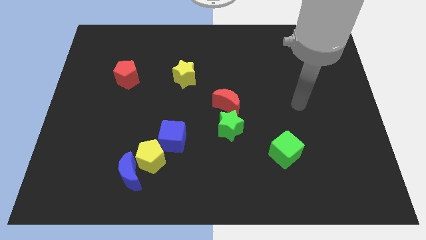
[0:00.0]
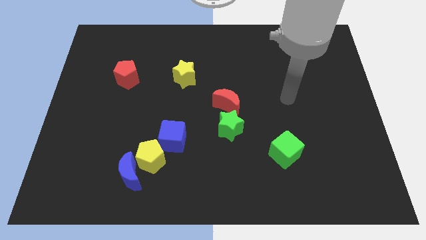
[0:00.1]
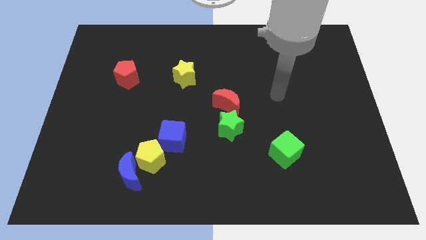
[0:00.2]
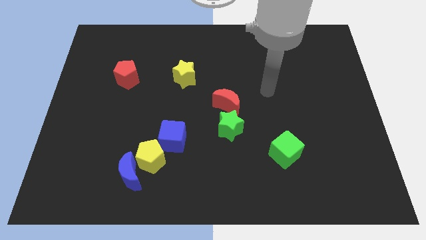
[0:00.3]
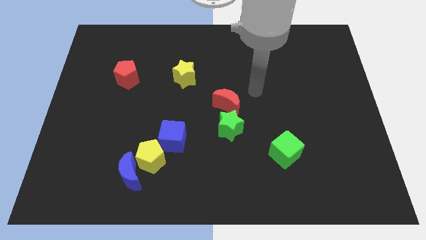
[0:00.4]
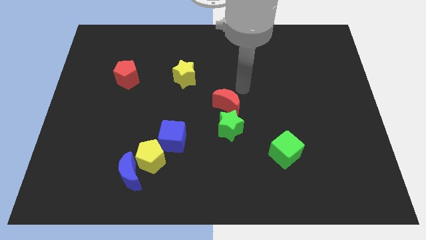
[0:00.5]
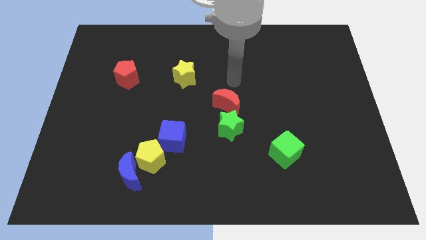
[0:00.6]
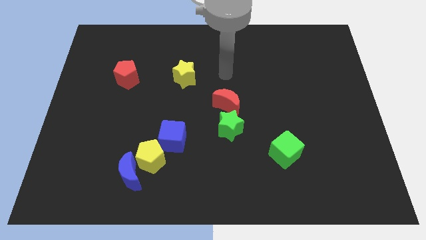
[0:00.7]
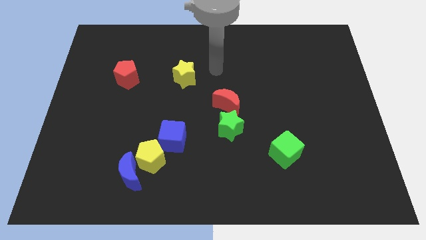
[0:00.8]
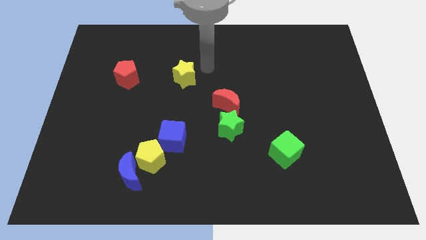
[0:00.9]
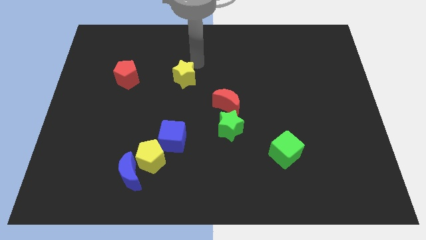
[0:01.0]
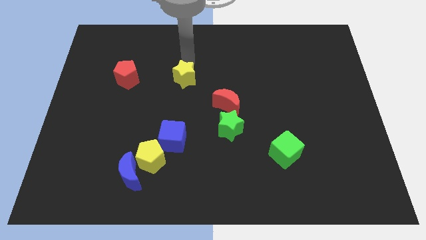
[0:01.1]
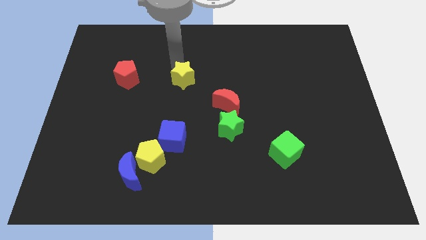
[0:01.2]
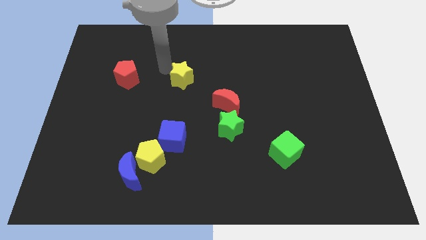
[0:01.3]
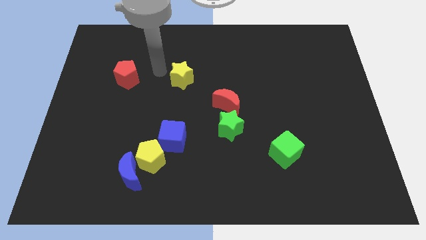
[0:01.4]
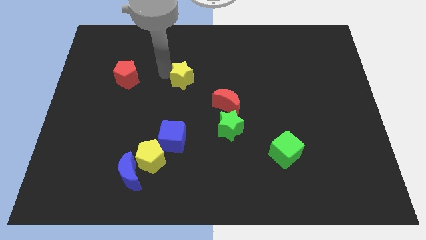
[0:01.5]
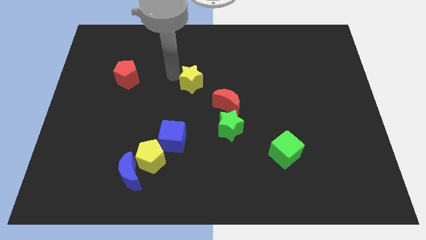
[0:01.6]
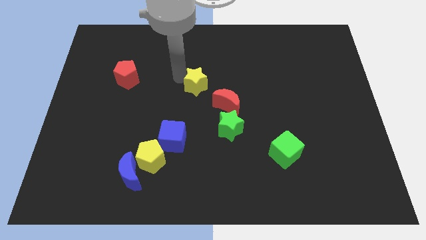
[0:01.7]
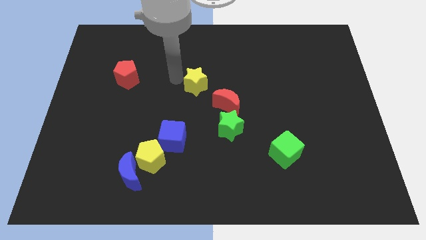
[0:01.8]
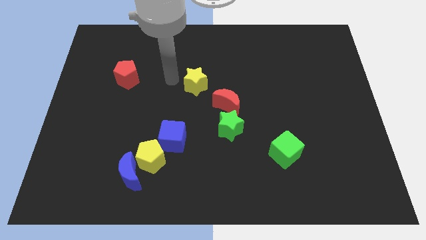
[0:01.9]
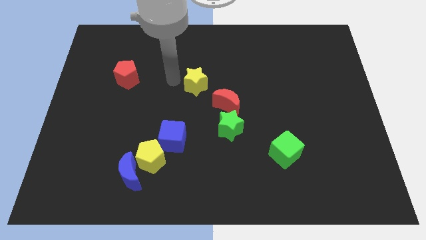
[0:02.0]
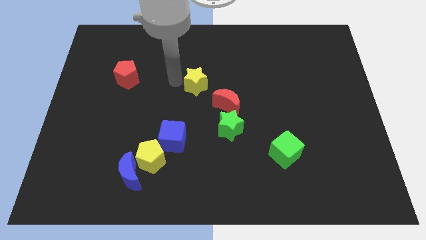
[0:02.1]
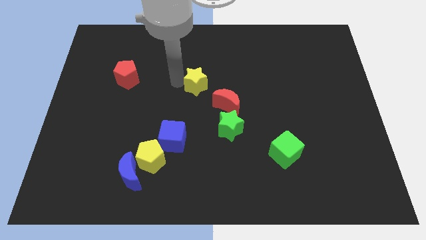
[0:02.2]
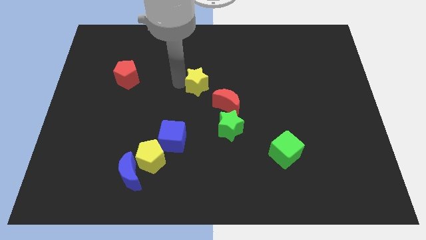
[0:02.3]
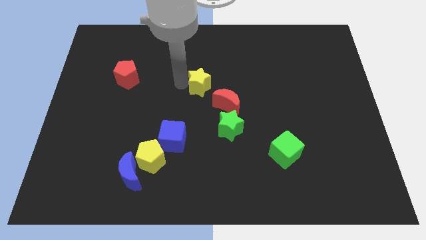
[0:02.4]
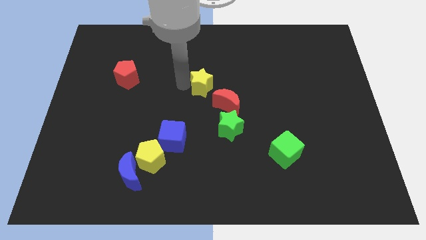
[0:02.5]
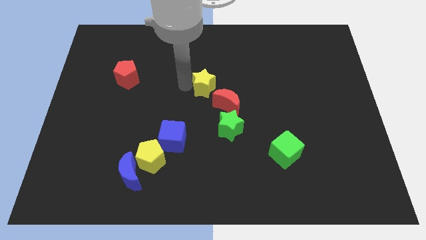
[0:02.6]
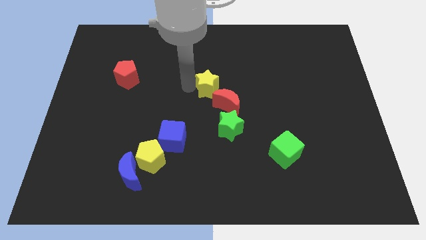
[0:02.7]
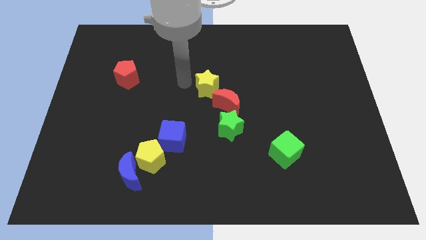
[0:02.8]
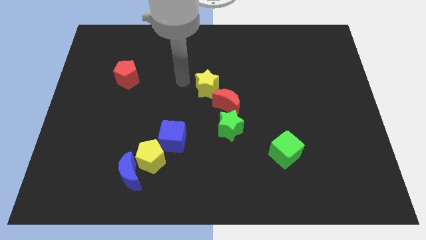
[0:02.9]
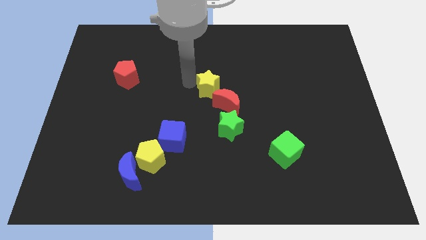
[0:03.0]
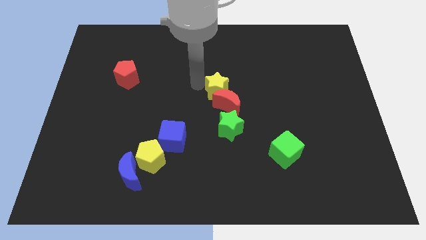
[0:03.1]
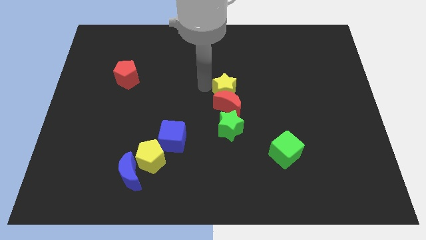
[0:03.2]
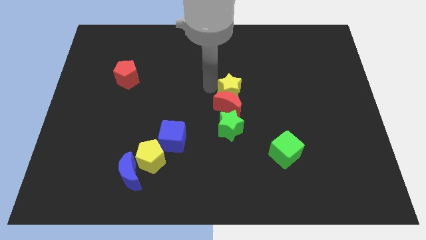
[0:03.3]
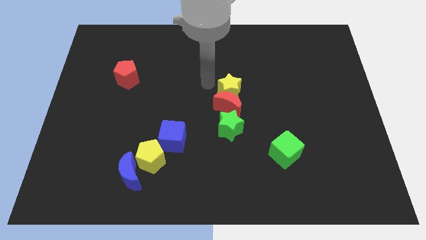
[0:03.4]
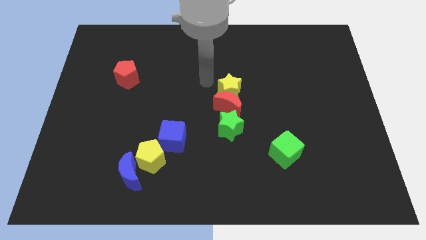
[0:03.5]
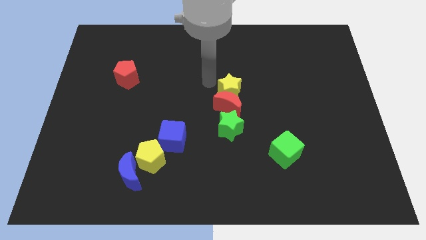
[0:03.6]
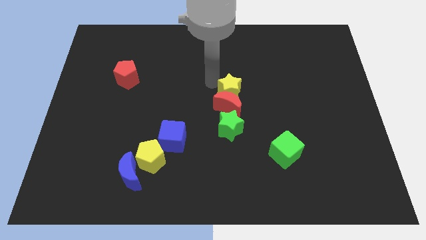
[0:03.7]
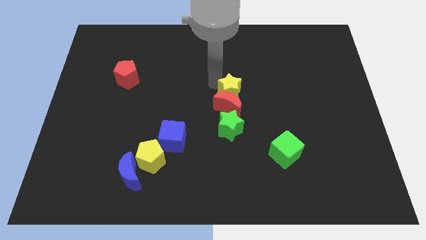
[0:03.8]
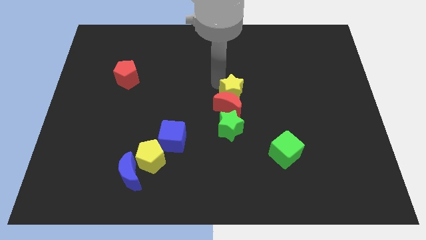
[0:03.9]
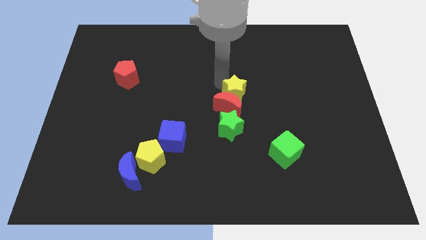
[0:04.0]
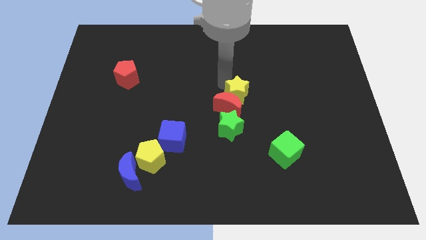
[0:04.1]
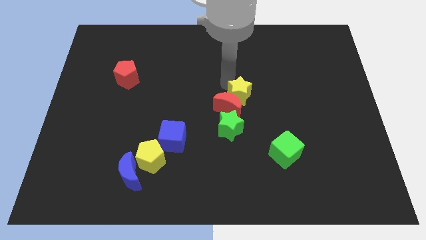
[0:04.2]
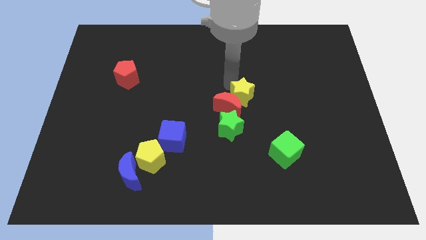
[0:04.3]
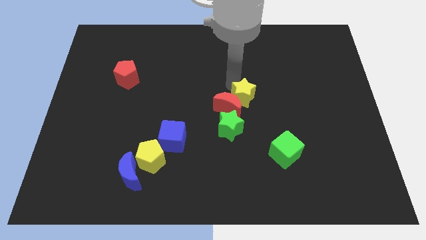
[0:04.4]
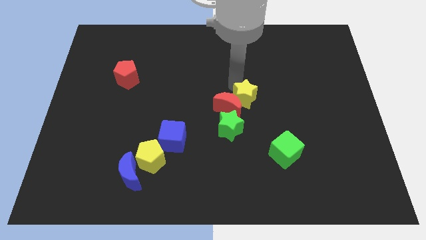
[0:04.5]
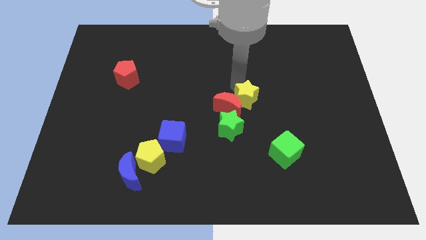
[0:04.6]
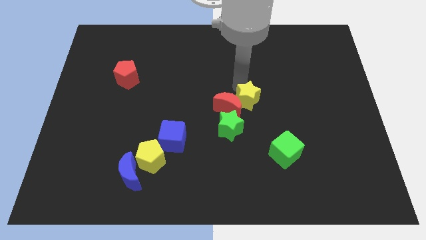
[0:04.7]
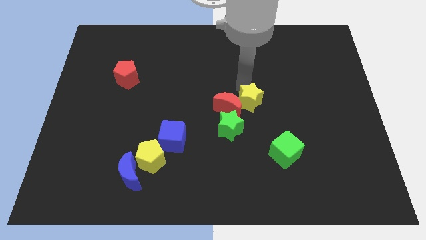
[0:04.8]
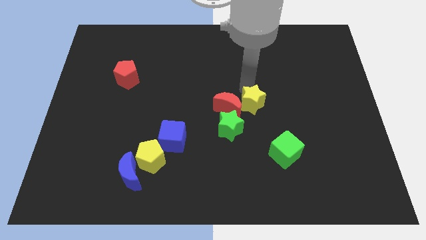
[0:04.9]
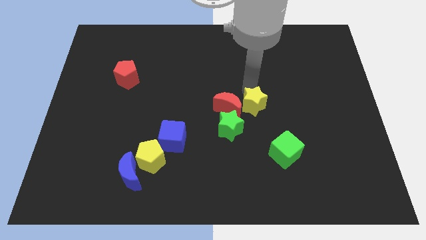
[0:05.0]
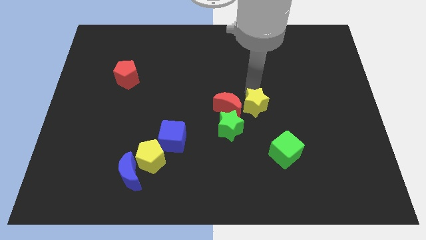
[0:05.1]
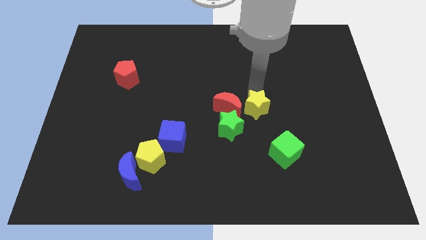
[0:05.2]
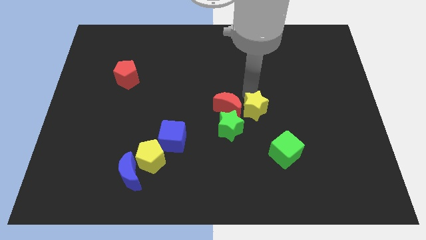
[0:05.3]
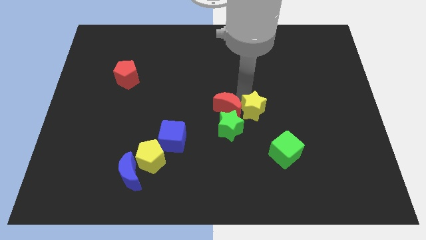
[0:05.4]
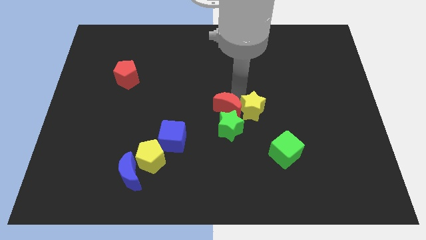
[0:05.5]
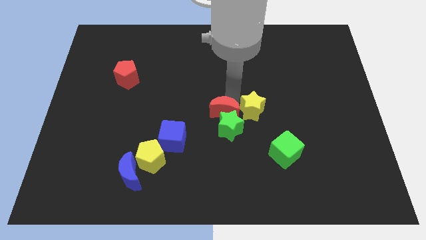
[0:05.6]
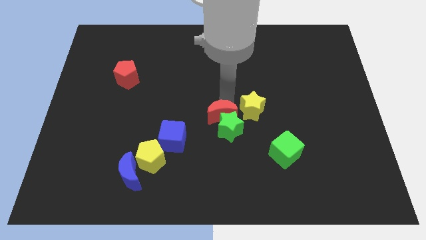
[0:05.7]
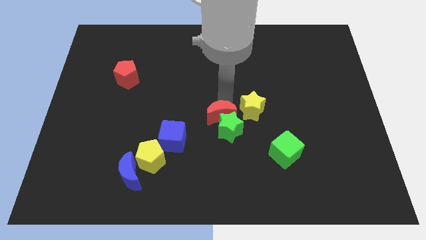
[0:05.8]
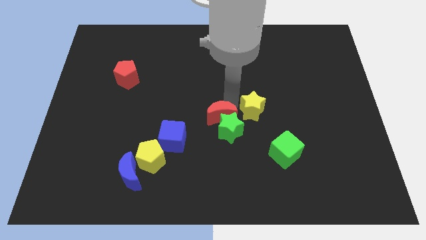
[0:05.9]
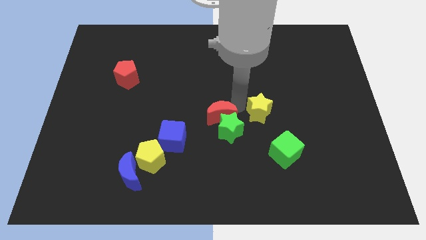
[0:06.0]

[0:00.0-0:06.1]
put the yellow star to the top of the green cube

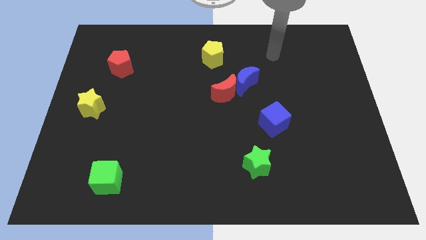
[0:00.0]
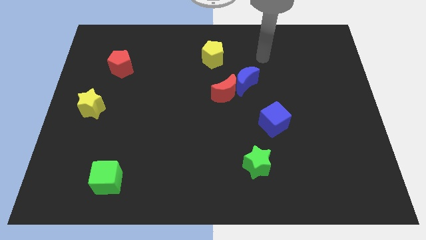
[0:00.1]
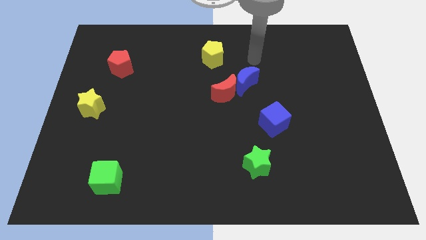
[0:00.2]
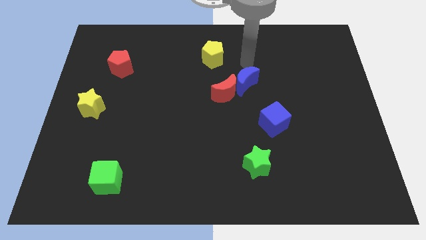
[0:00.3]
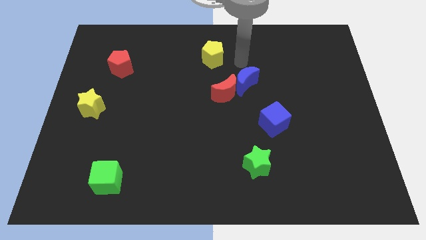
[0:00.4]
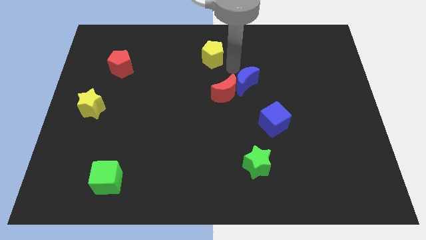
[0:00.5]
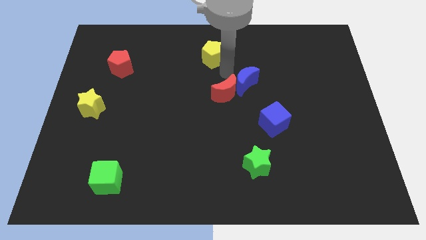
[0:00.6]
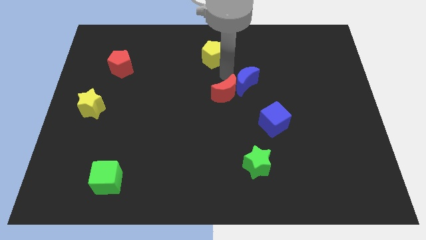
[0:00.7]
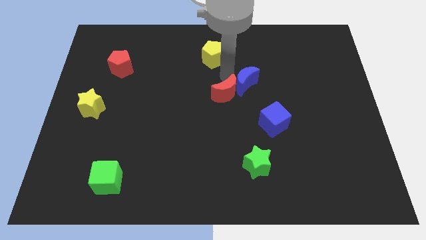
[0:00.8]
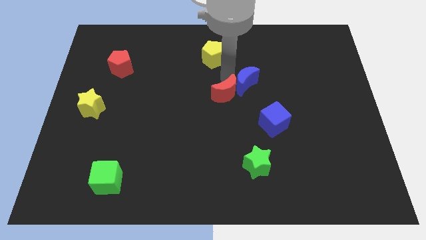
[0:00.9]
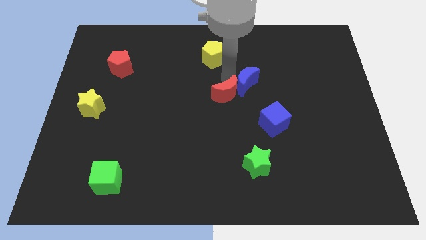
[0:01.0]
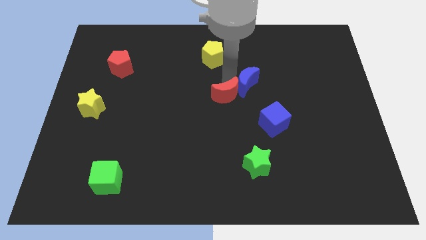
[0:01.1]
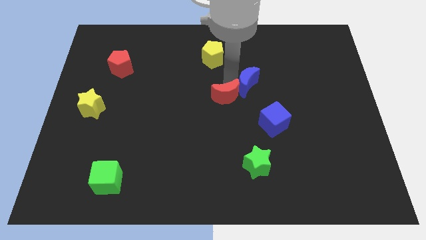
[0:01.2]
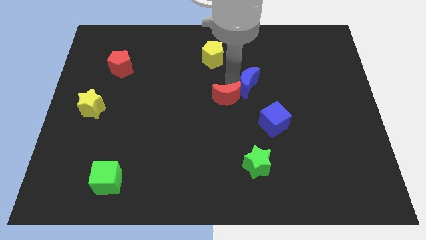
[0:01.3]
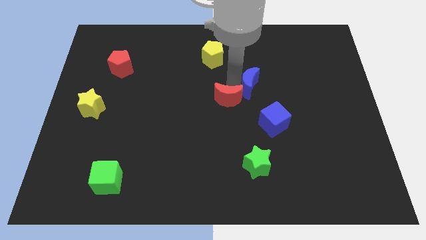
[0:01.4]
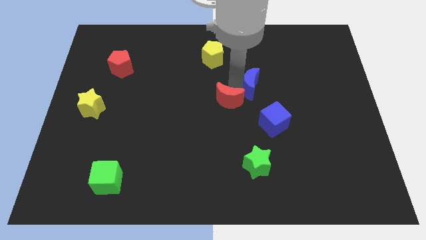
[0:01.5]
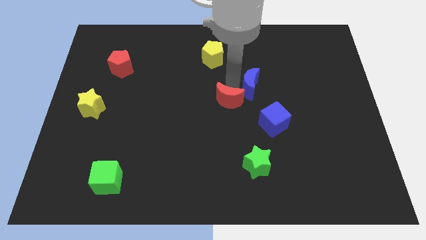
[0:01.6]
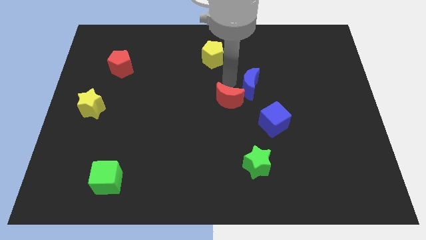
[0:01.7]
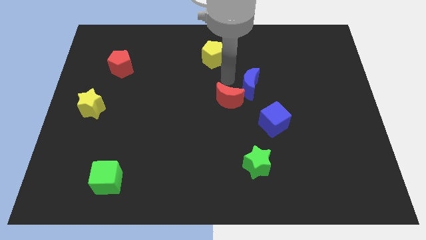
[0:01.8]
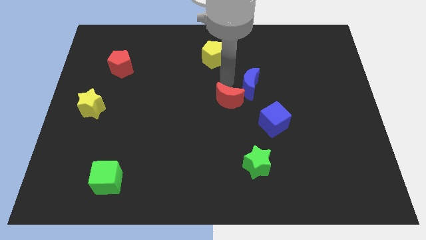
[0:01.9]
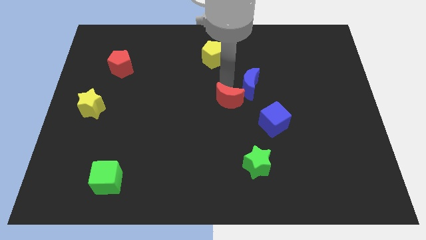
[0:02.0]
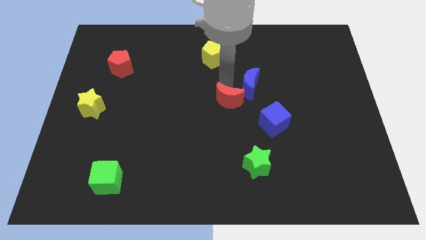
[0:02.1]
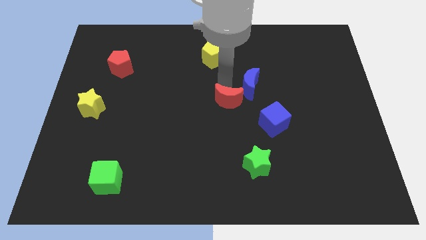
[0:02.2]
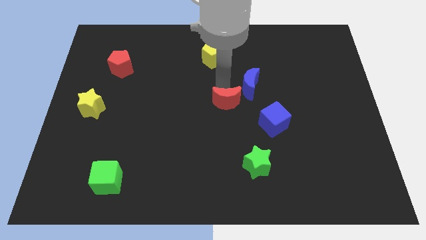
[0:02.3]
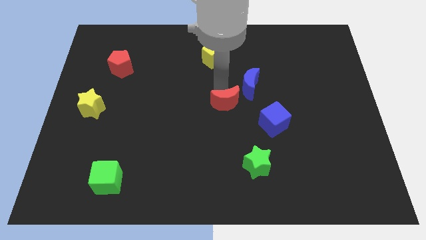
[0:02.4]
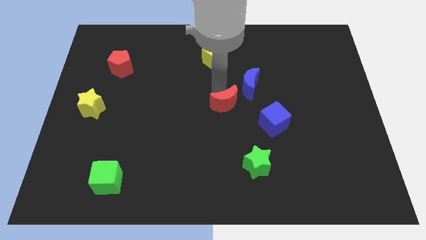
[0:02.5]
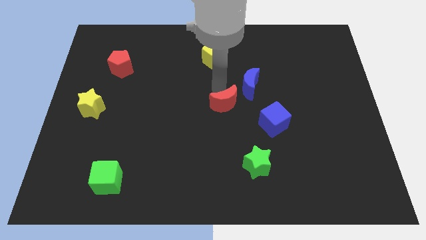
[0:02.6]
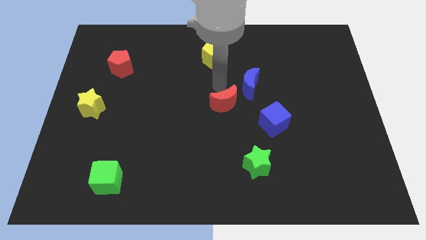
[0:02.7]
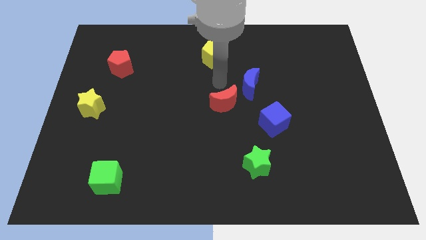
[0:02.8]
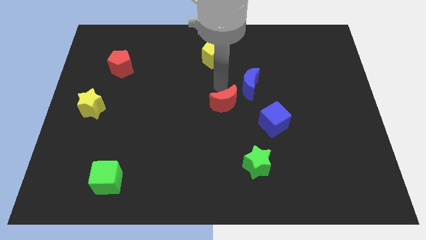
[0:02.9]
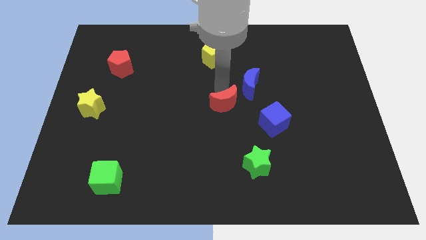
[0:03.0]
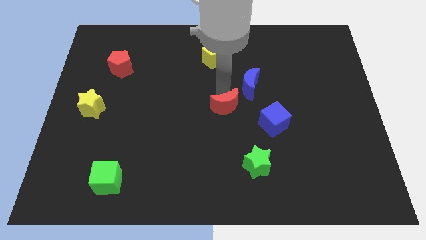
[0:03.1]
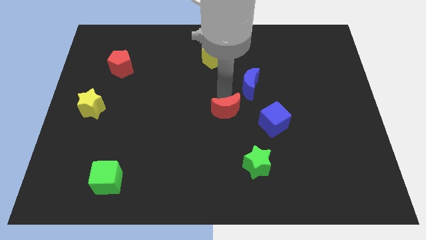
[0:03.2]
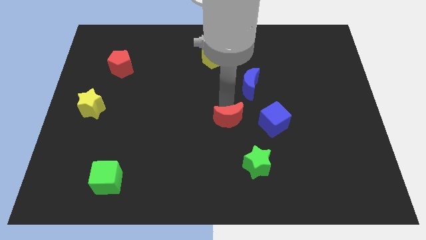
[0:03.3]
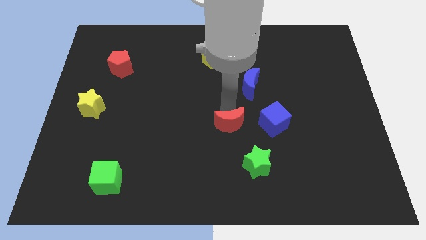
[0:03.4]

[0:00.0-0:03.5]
push the red moon to the top left of the green star
